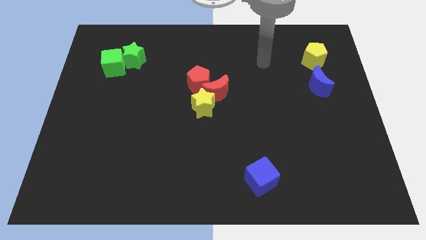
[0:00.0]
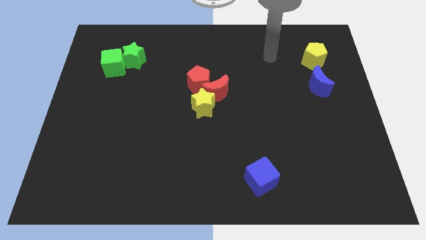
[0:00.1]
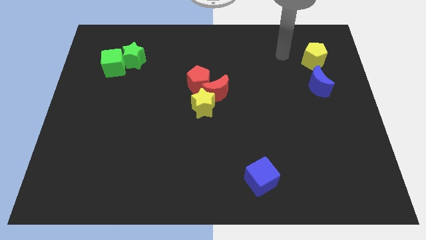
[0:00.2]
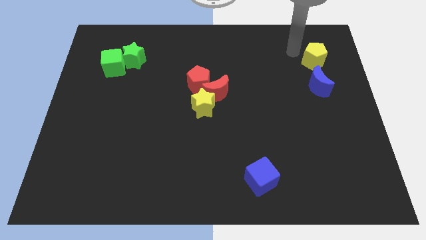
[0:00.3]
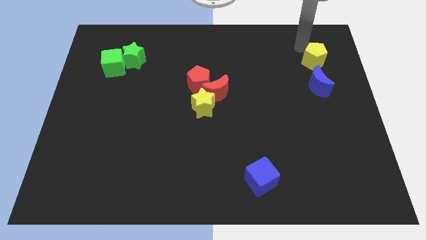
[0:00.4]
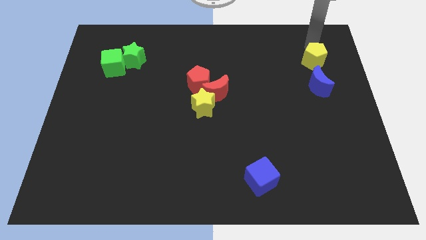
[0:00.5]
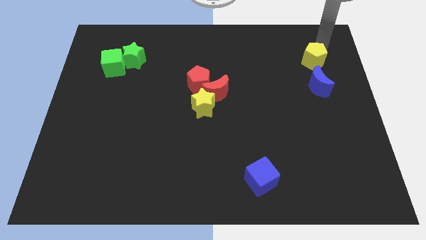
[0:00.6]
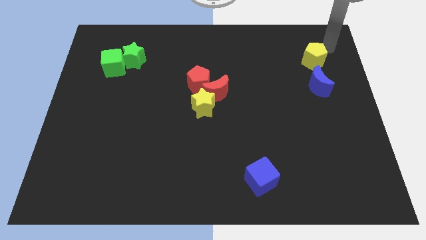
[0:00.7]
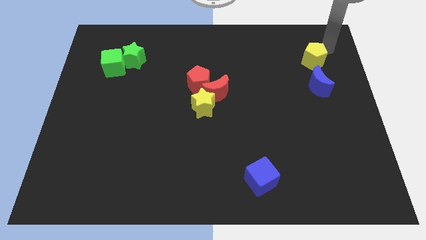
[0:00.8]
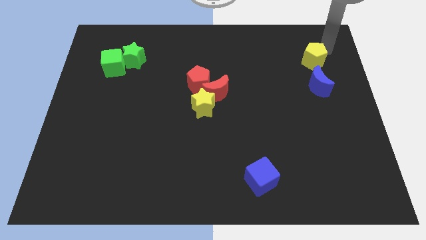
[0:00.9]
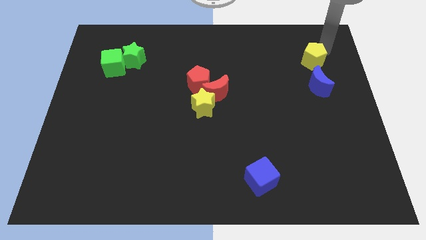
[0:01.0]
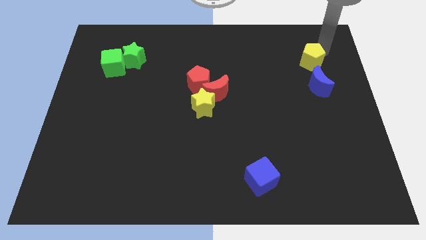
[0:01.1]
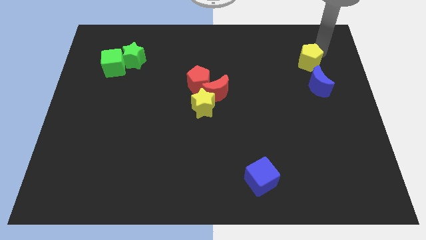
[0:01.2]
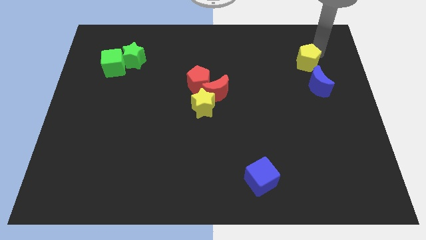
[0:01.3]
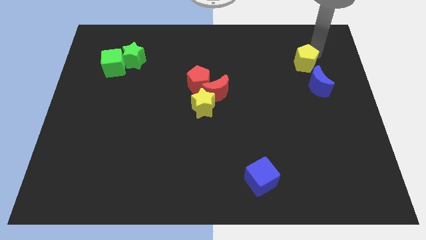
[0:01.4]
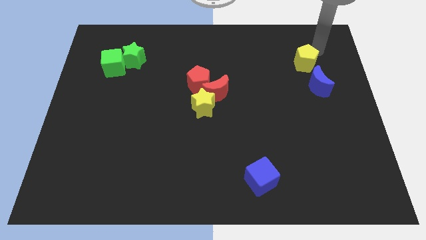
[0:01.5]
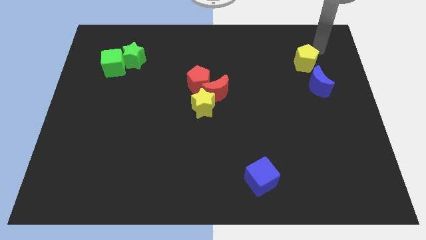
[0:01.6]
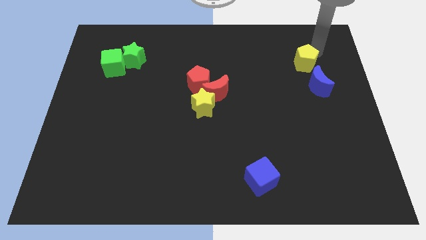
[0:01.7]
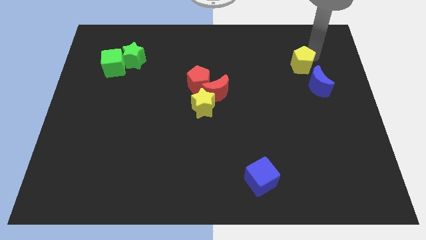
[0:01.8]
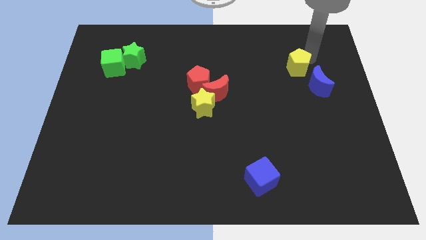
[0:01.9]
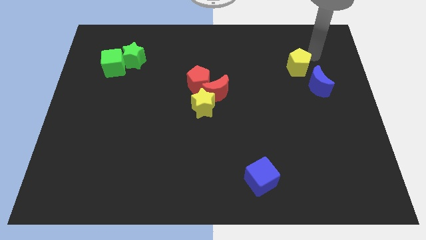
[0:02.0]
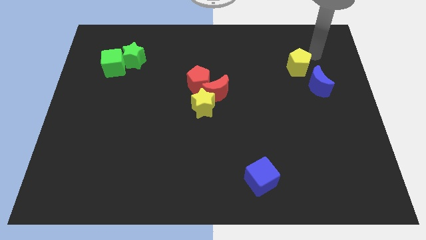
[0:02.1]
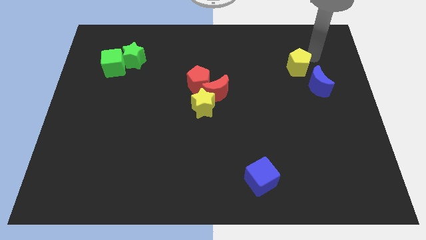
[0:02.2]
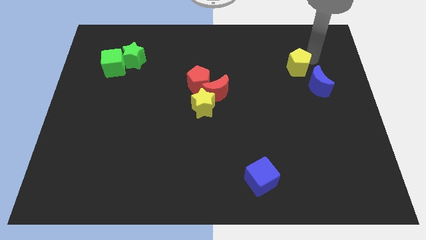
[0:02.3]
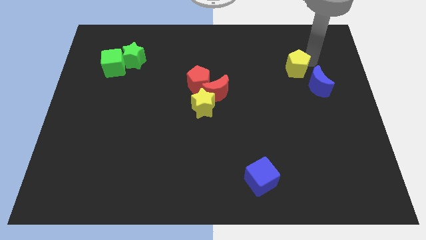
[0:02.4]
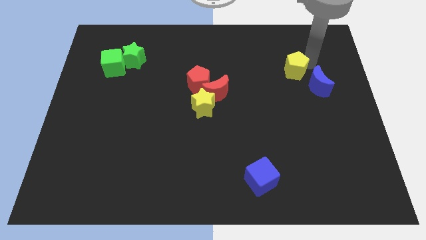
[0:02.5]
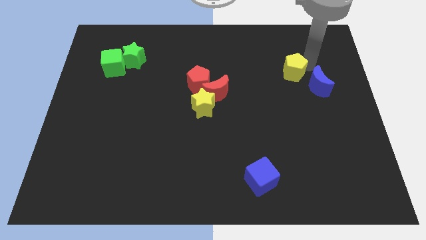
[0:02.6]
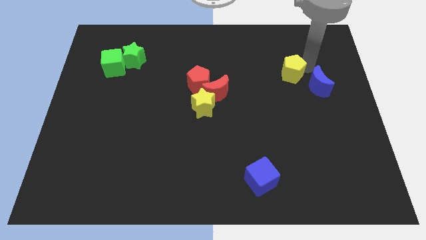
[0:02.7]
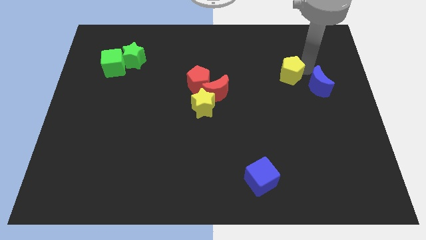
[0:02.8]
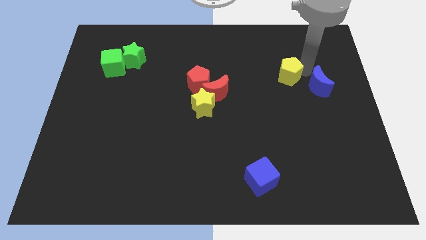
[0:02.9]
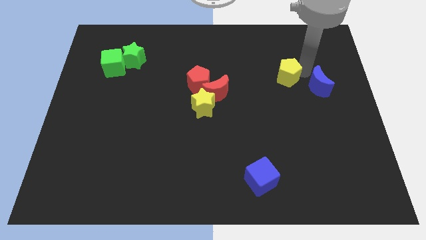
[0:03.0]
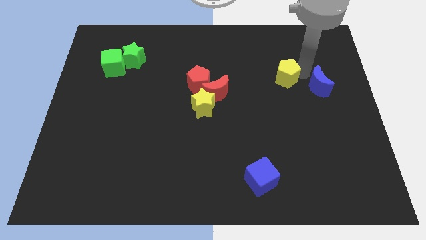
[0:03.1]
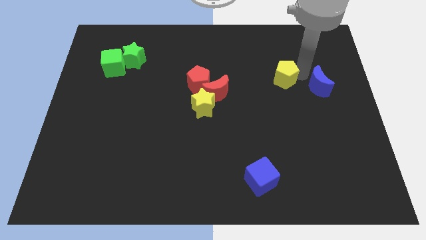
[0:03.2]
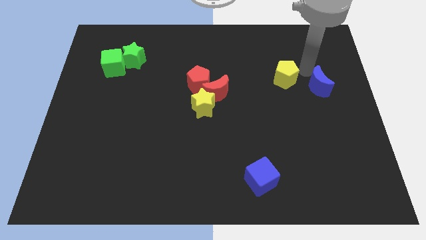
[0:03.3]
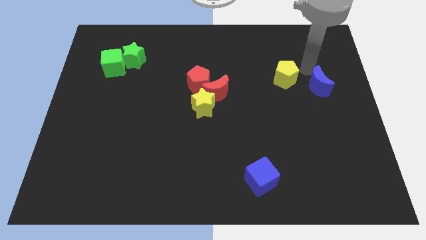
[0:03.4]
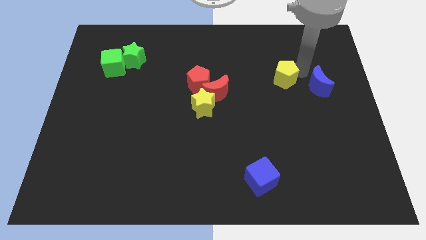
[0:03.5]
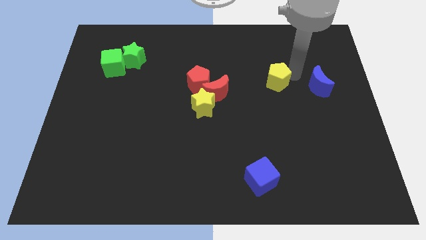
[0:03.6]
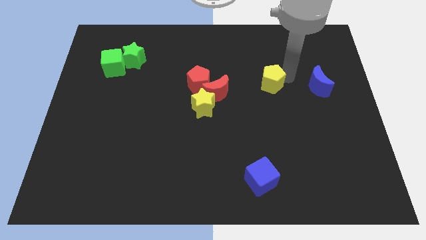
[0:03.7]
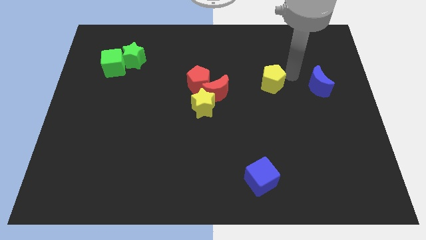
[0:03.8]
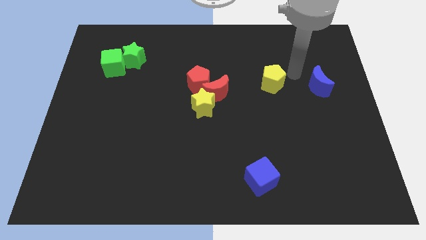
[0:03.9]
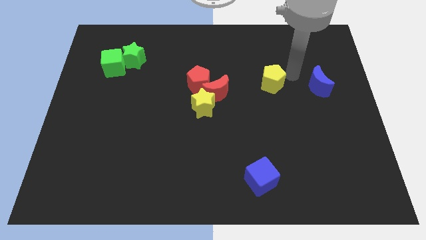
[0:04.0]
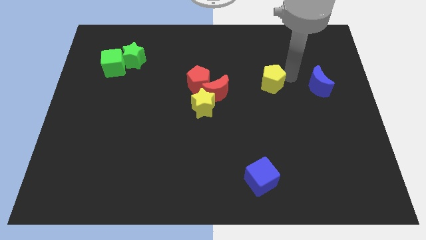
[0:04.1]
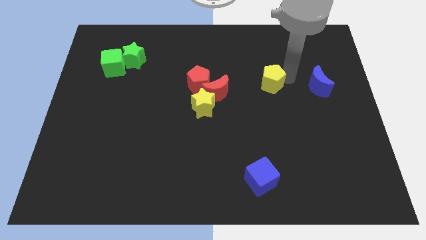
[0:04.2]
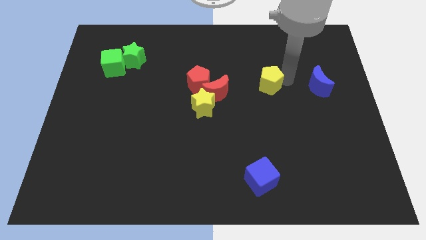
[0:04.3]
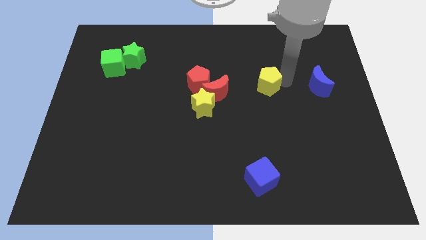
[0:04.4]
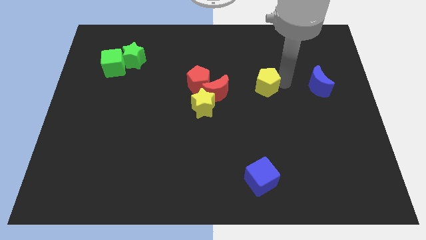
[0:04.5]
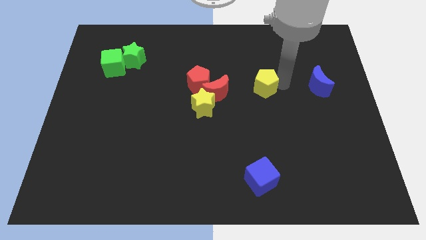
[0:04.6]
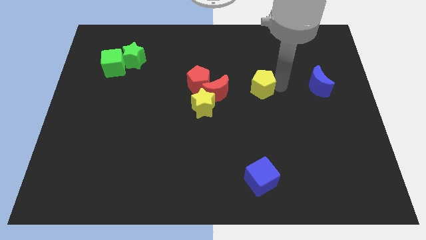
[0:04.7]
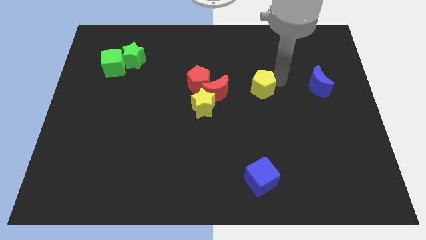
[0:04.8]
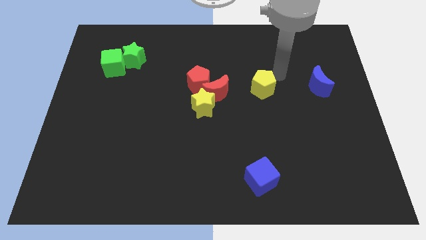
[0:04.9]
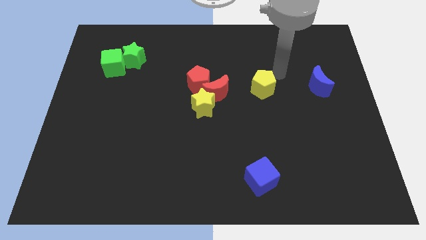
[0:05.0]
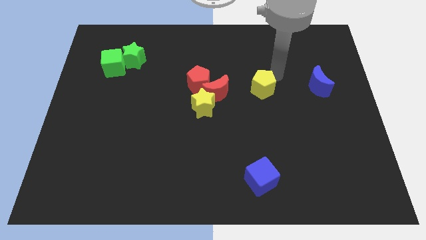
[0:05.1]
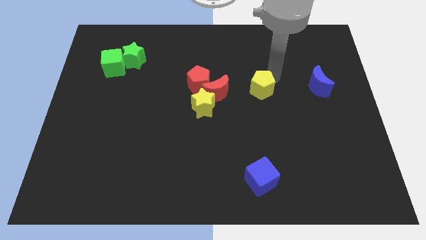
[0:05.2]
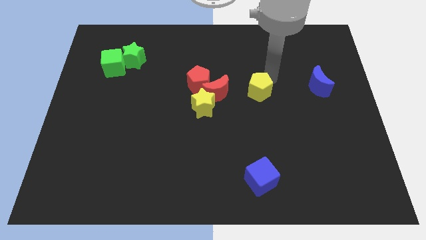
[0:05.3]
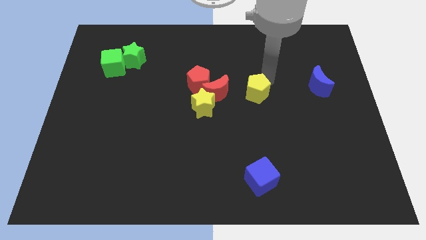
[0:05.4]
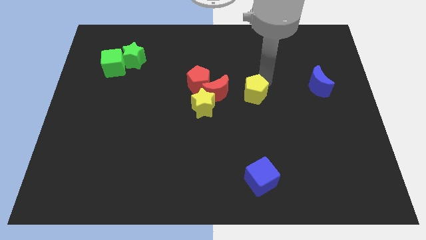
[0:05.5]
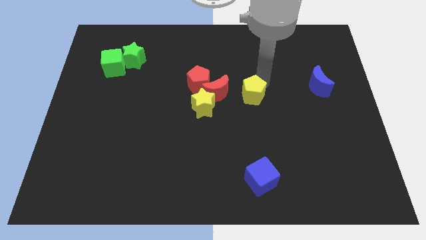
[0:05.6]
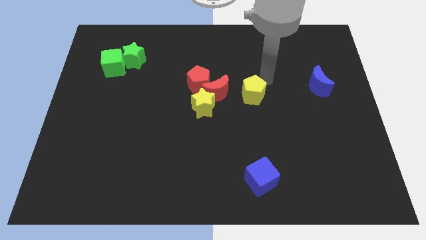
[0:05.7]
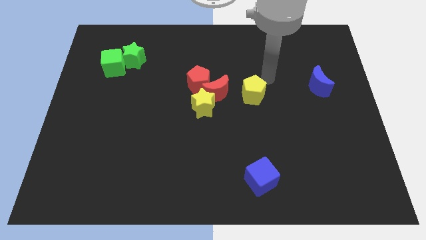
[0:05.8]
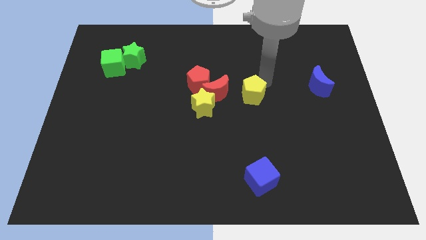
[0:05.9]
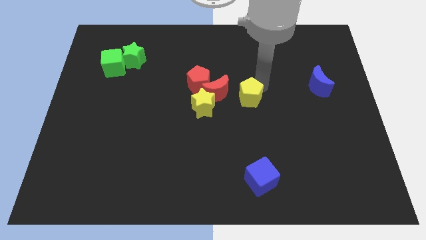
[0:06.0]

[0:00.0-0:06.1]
put the yellow pentagon to the bottom right side of the red moon
